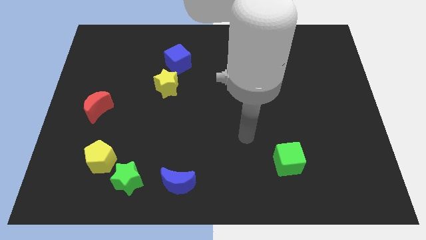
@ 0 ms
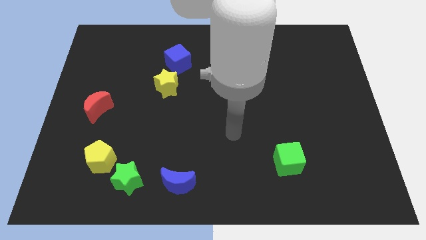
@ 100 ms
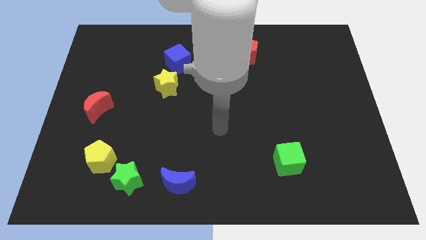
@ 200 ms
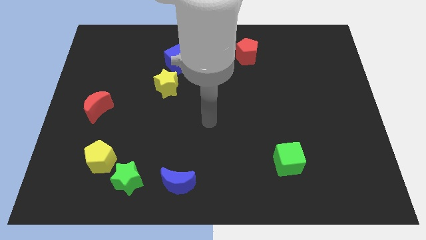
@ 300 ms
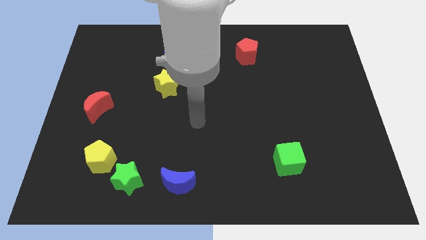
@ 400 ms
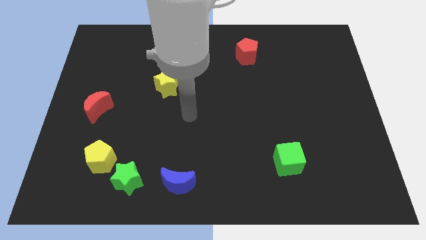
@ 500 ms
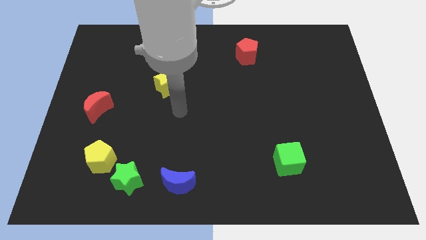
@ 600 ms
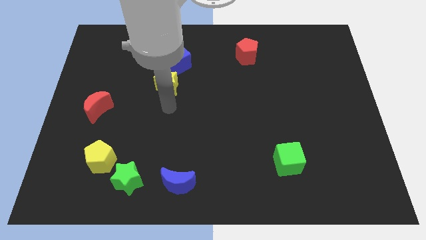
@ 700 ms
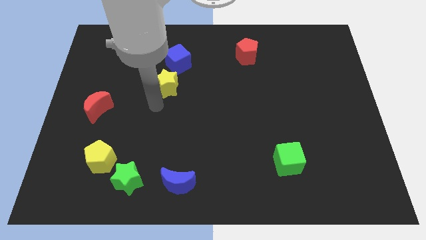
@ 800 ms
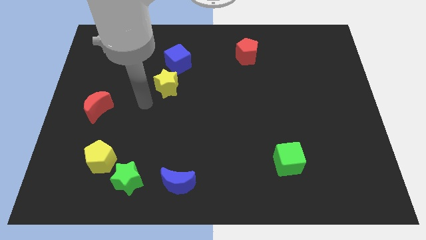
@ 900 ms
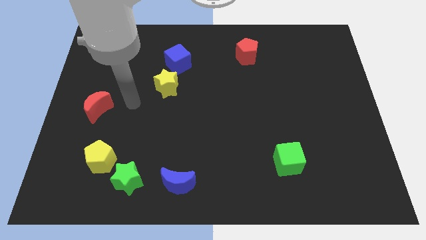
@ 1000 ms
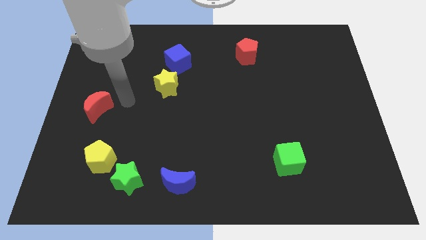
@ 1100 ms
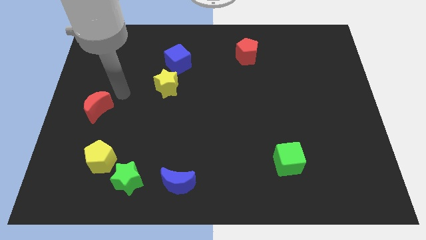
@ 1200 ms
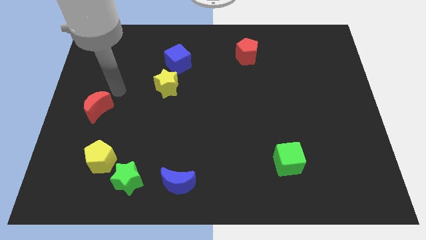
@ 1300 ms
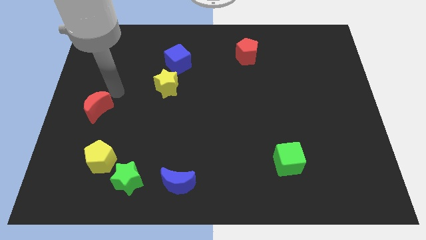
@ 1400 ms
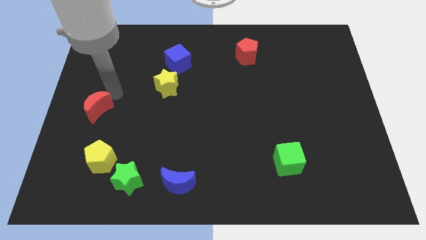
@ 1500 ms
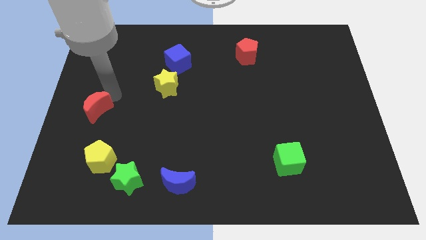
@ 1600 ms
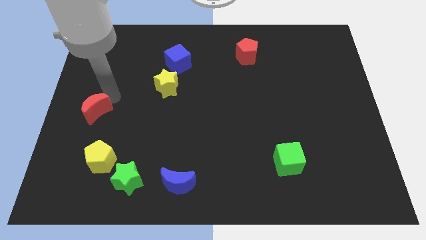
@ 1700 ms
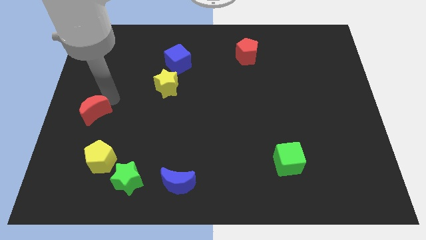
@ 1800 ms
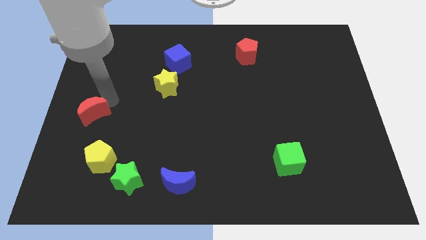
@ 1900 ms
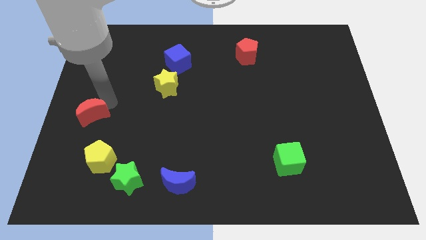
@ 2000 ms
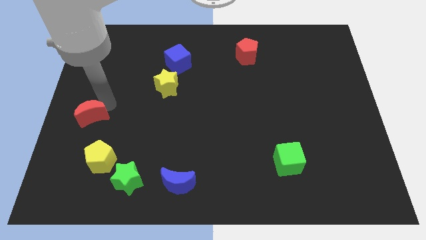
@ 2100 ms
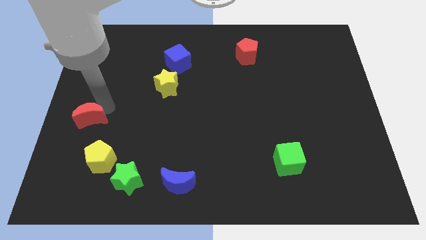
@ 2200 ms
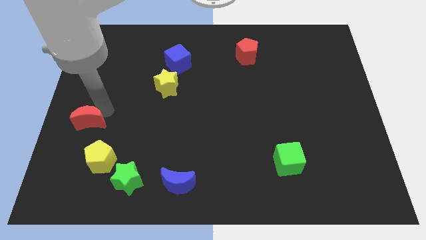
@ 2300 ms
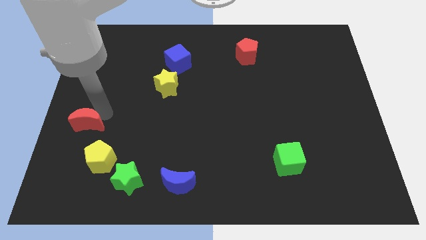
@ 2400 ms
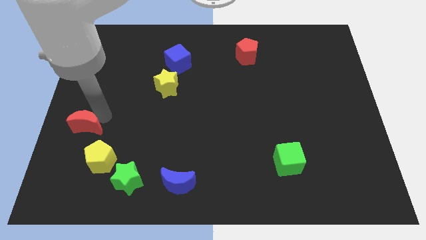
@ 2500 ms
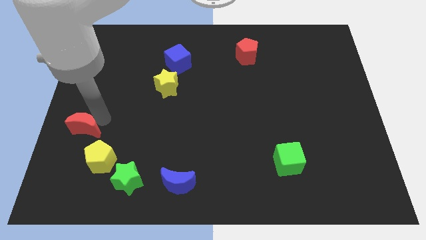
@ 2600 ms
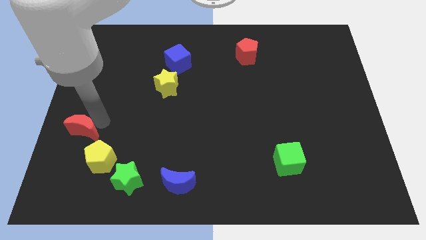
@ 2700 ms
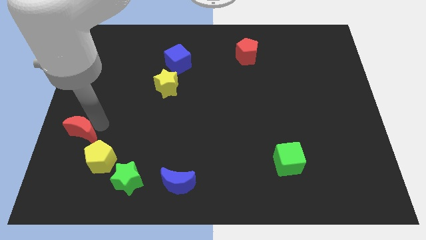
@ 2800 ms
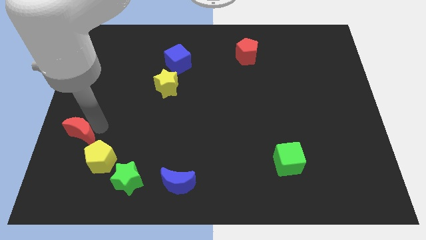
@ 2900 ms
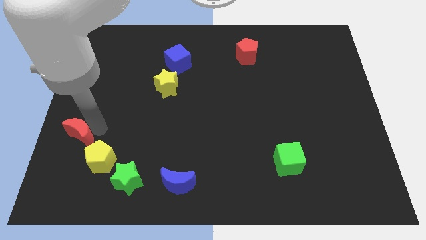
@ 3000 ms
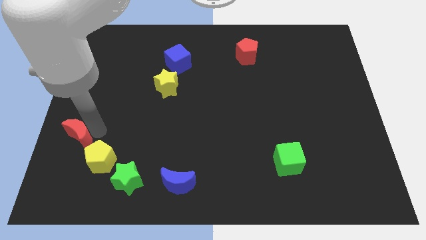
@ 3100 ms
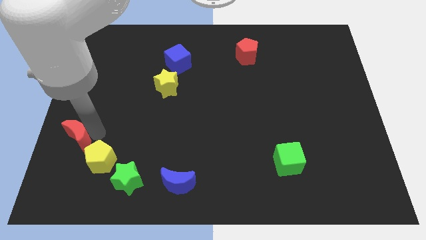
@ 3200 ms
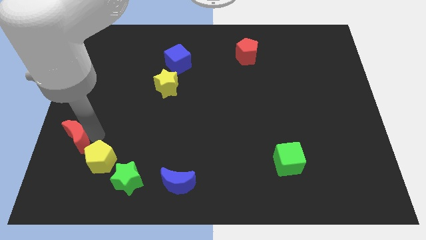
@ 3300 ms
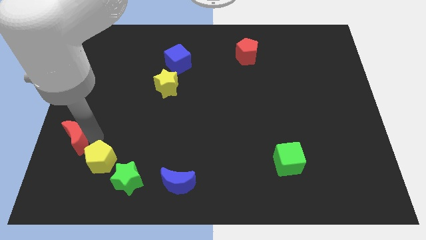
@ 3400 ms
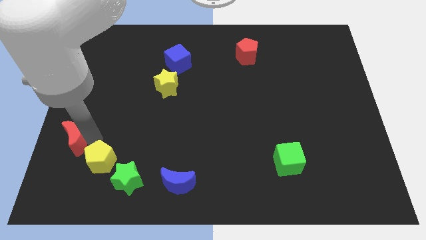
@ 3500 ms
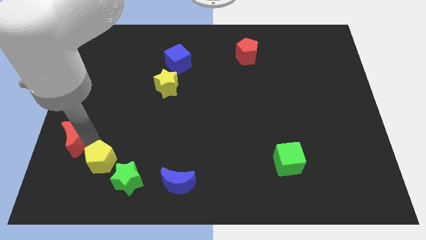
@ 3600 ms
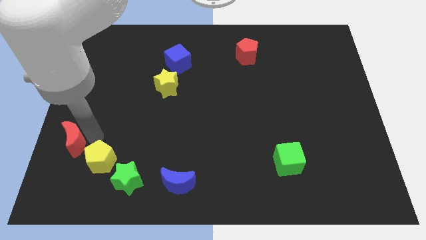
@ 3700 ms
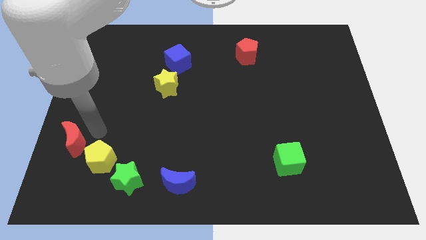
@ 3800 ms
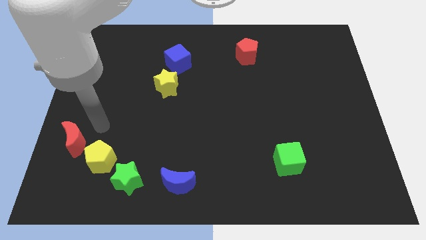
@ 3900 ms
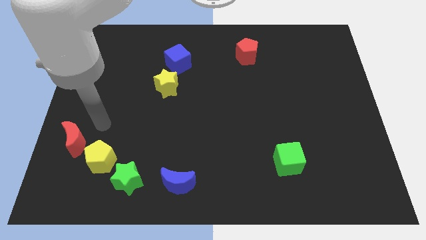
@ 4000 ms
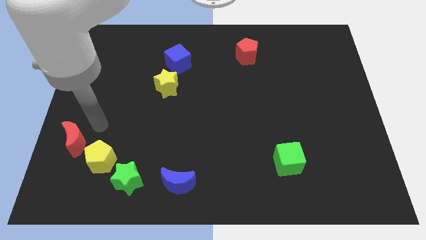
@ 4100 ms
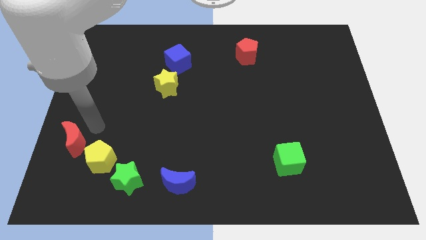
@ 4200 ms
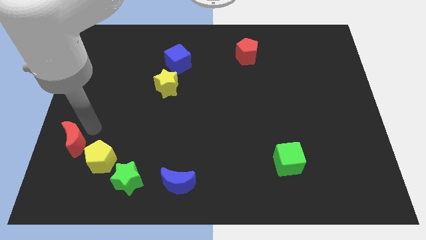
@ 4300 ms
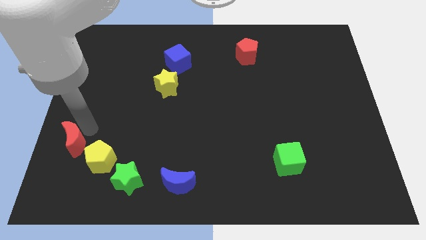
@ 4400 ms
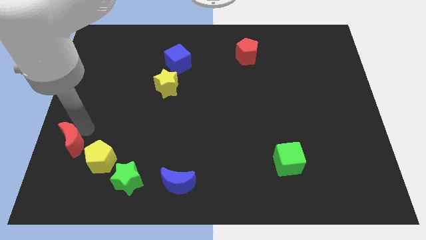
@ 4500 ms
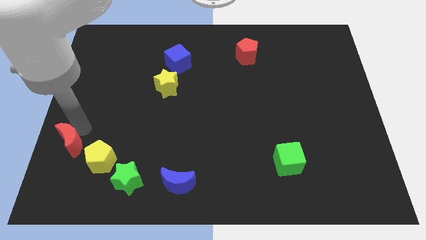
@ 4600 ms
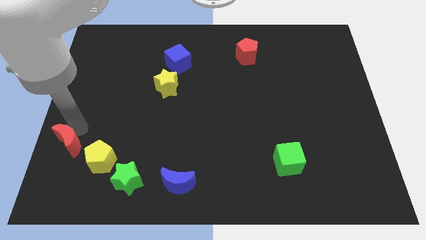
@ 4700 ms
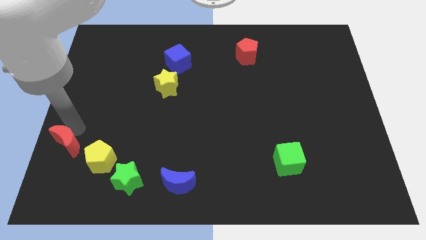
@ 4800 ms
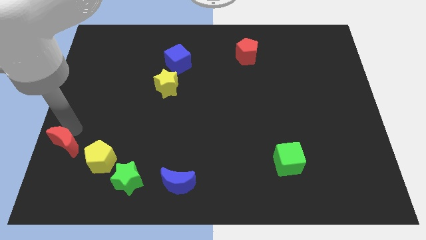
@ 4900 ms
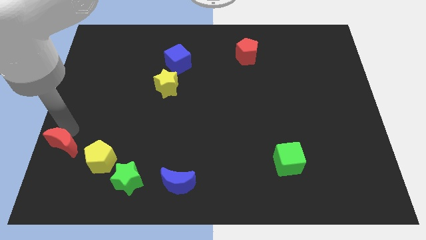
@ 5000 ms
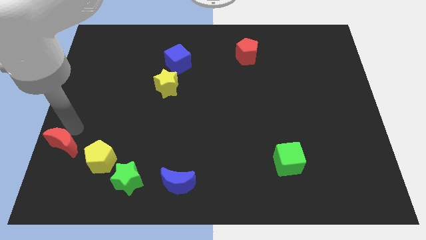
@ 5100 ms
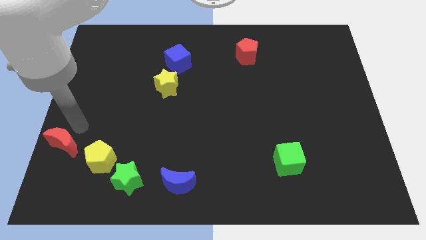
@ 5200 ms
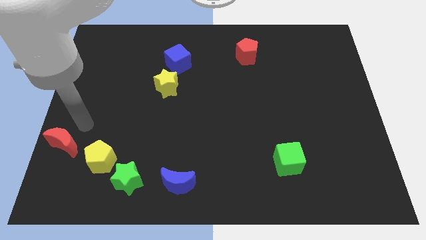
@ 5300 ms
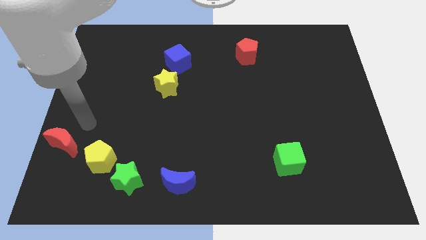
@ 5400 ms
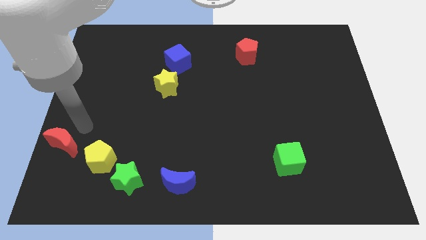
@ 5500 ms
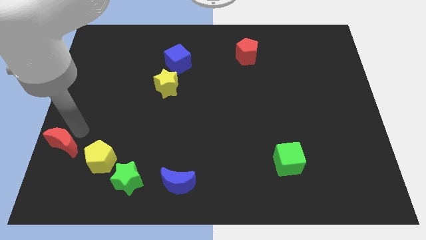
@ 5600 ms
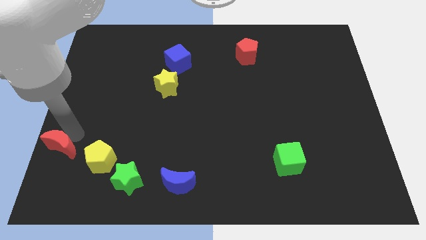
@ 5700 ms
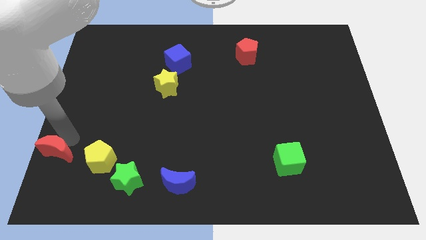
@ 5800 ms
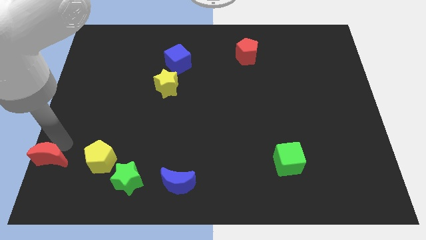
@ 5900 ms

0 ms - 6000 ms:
slide the red moon to the bottom left corner
